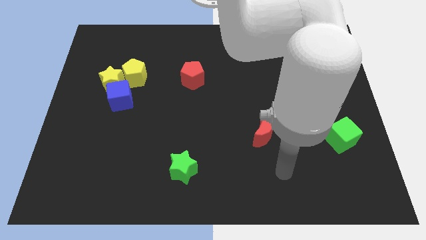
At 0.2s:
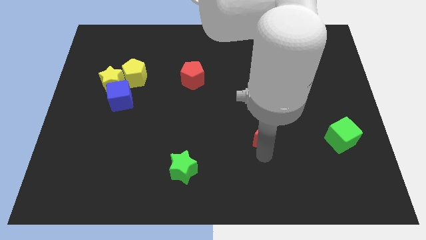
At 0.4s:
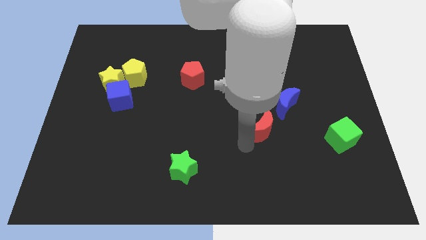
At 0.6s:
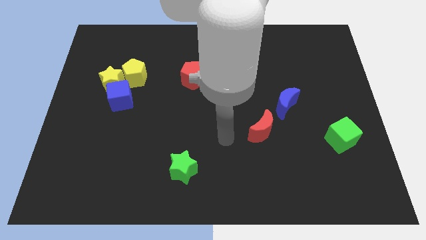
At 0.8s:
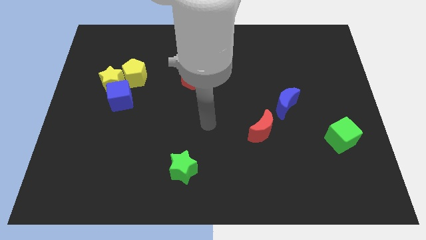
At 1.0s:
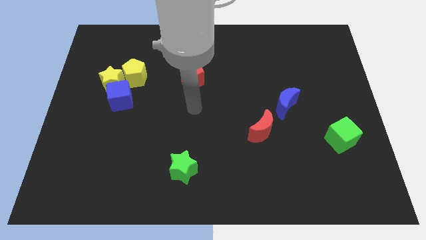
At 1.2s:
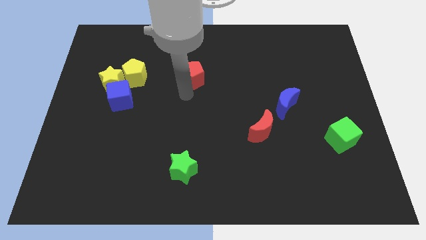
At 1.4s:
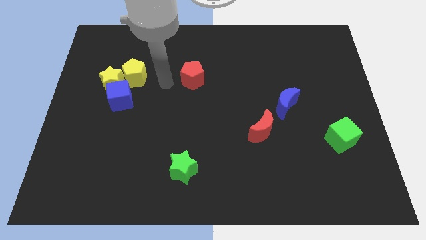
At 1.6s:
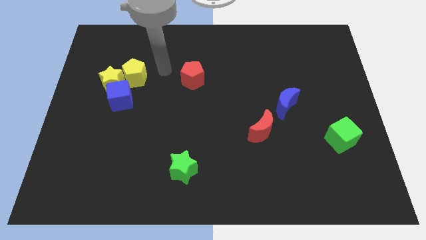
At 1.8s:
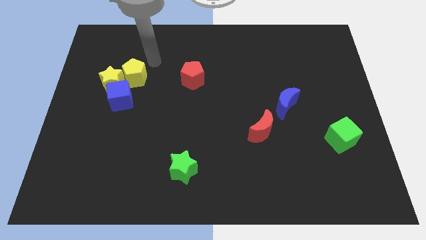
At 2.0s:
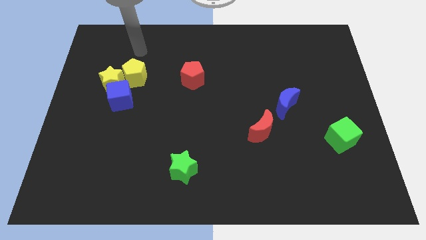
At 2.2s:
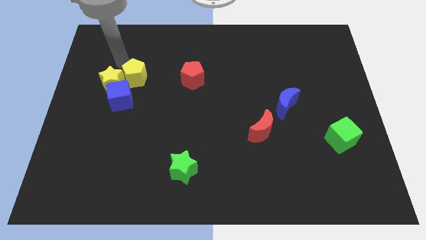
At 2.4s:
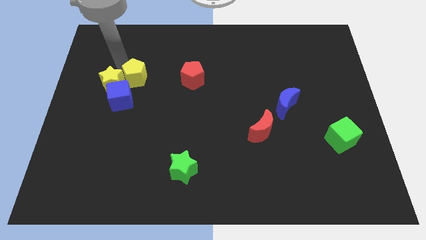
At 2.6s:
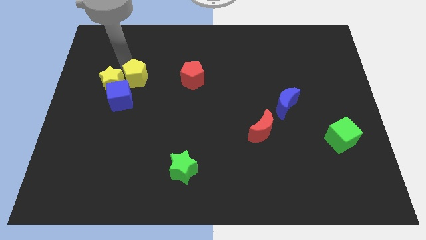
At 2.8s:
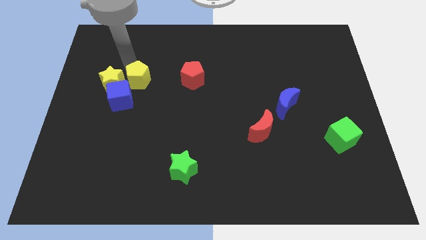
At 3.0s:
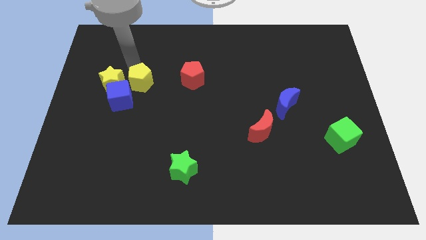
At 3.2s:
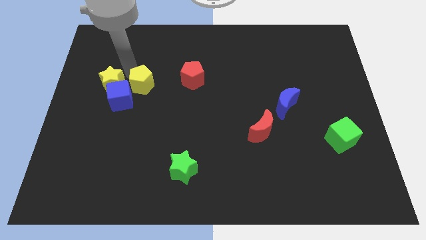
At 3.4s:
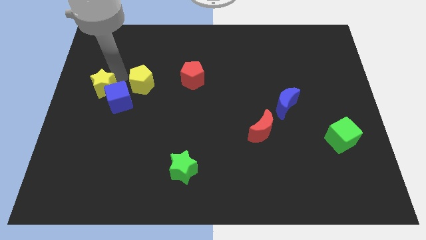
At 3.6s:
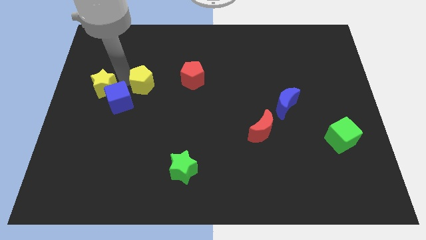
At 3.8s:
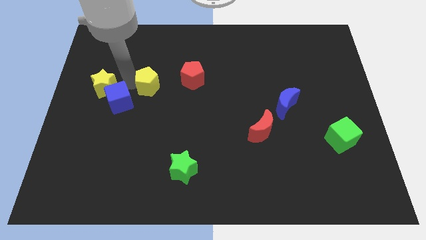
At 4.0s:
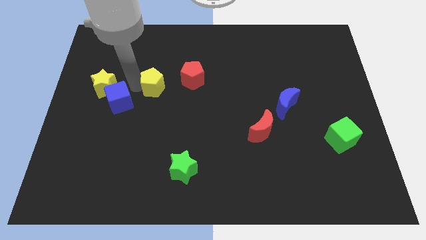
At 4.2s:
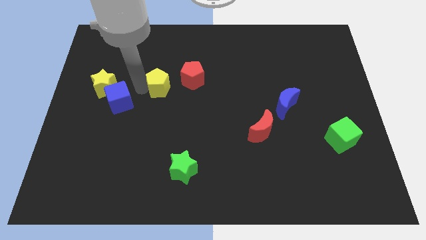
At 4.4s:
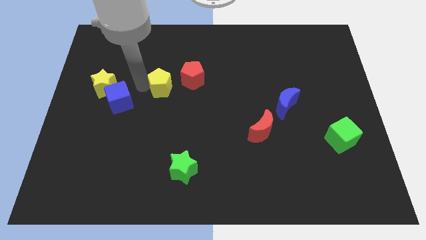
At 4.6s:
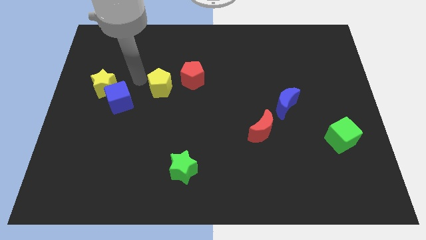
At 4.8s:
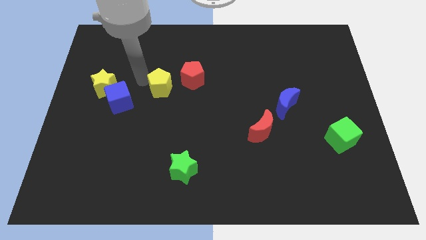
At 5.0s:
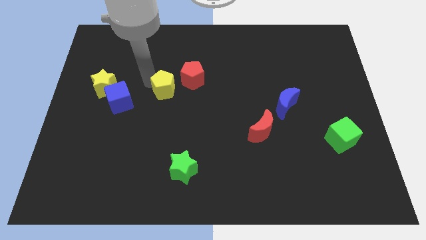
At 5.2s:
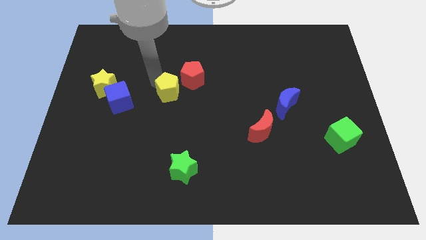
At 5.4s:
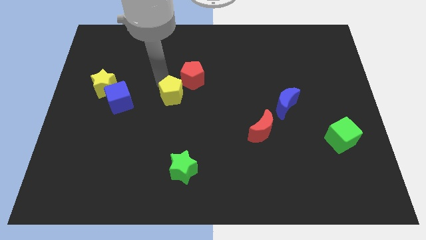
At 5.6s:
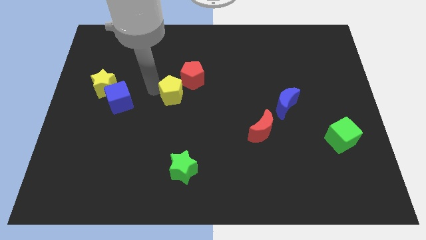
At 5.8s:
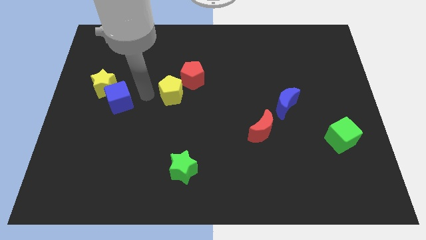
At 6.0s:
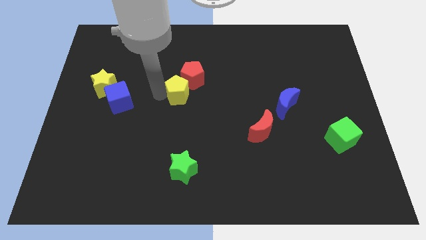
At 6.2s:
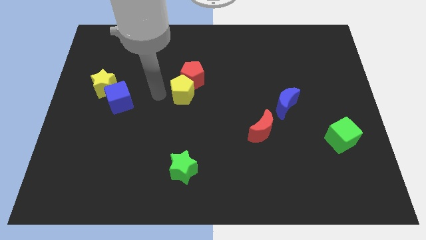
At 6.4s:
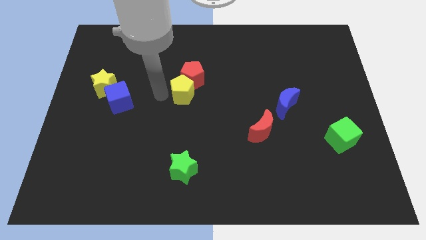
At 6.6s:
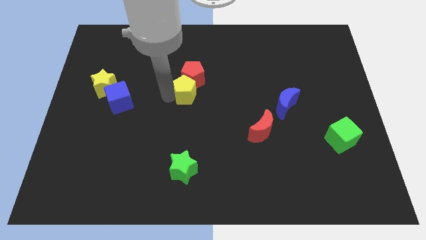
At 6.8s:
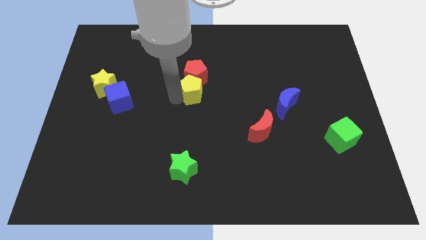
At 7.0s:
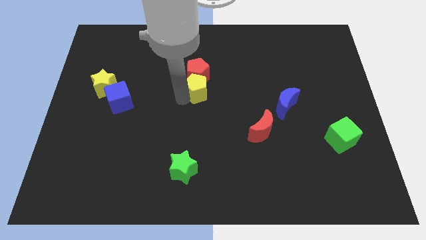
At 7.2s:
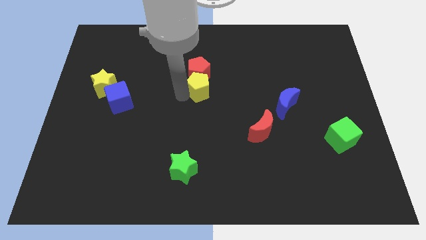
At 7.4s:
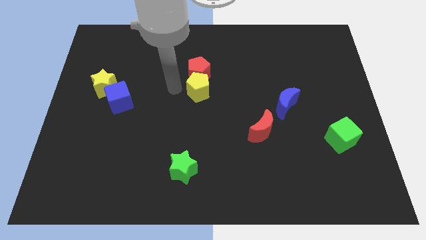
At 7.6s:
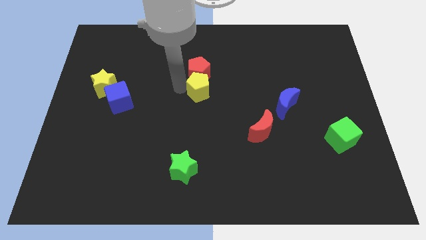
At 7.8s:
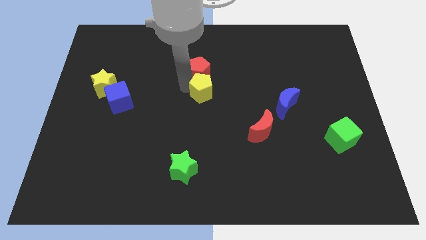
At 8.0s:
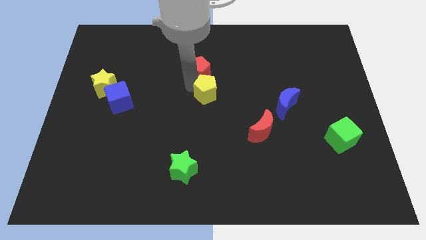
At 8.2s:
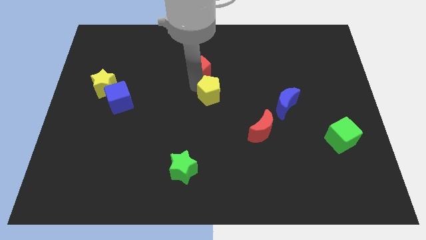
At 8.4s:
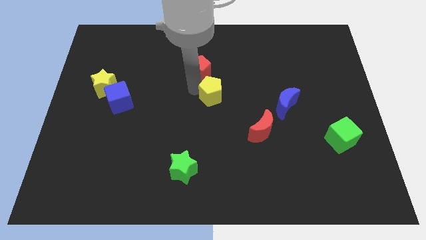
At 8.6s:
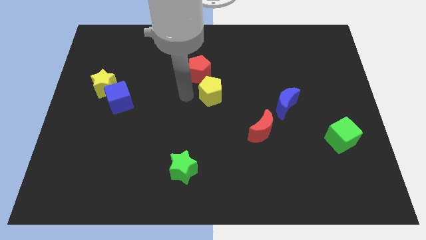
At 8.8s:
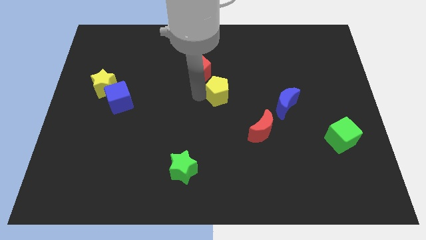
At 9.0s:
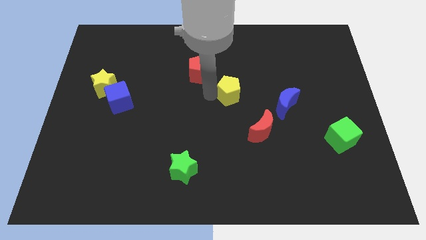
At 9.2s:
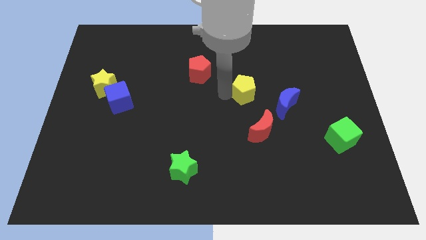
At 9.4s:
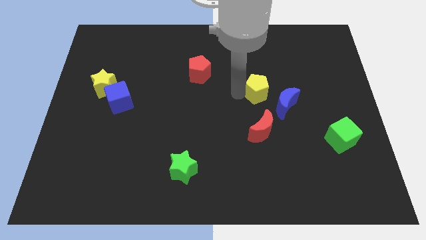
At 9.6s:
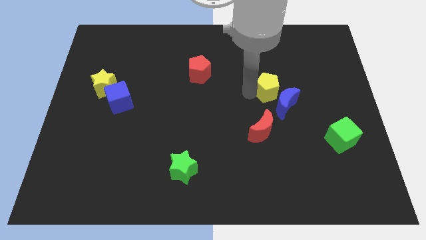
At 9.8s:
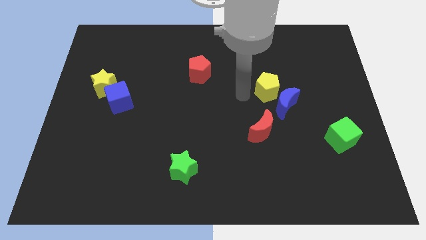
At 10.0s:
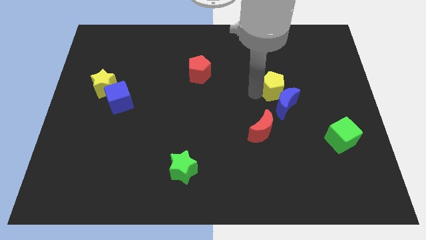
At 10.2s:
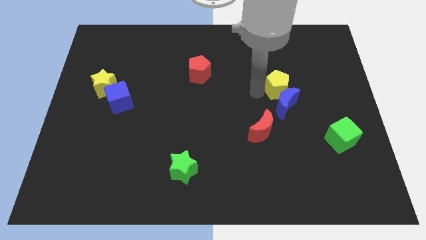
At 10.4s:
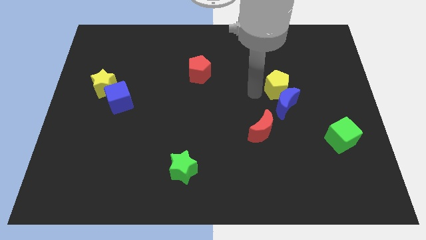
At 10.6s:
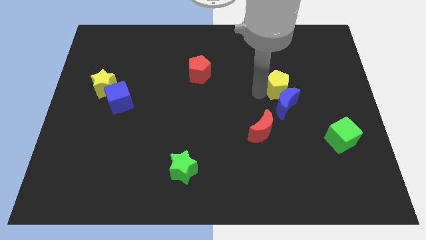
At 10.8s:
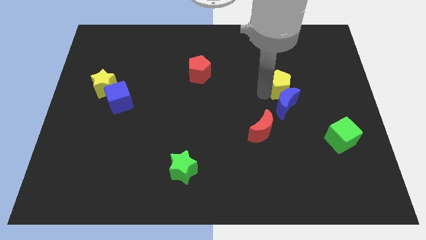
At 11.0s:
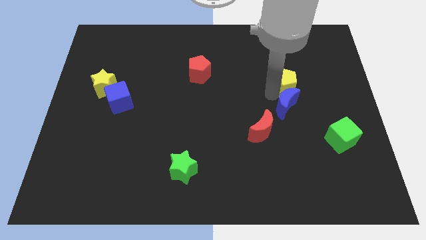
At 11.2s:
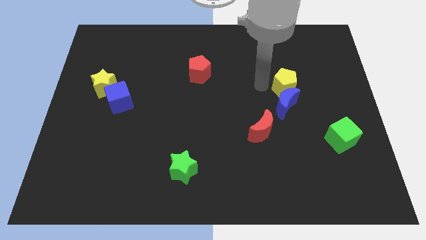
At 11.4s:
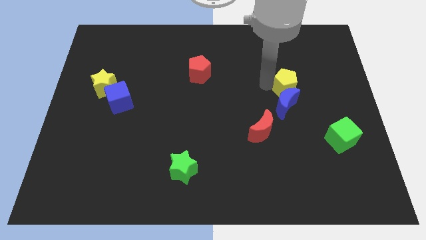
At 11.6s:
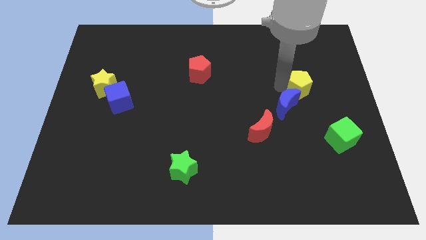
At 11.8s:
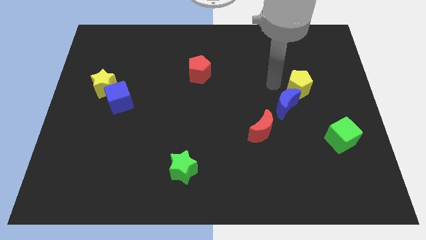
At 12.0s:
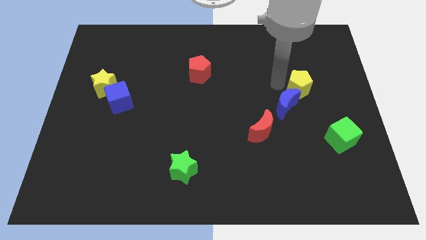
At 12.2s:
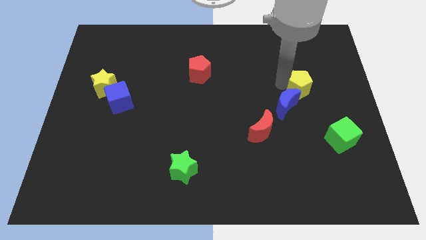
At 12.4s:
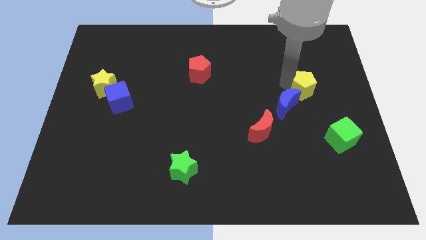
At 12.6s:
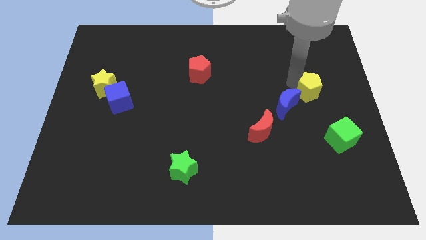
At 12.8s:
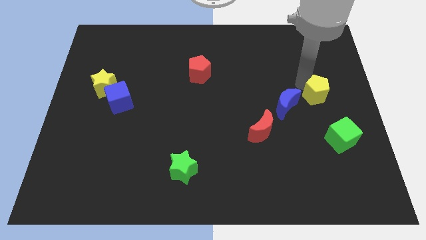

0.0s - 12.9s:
slide the yellow pentagon to the center right
